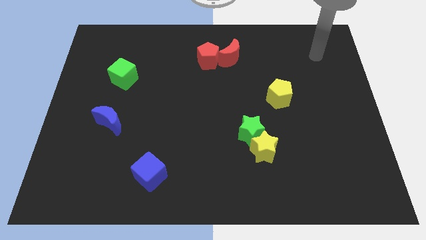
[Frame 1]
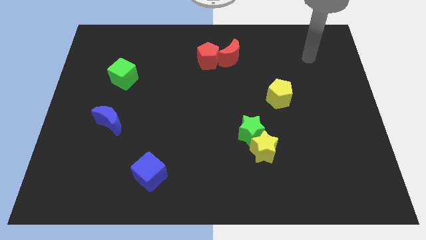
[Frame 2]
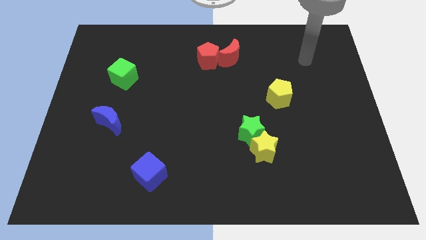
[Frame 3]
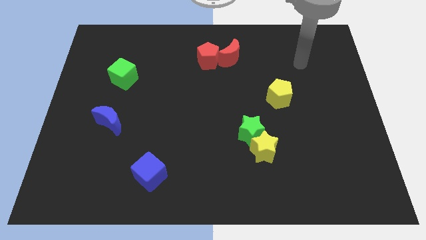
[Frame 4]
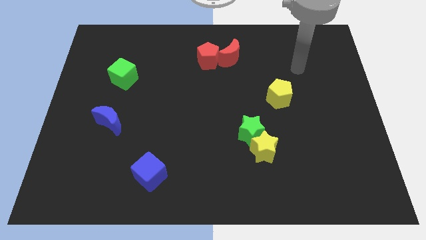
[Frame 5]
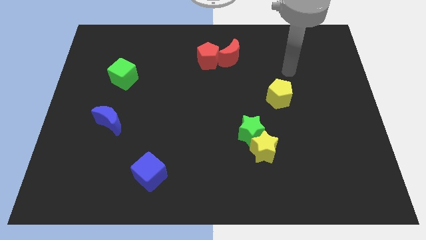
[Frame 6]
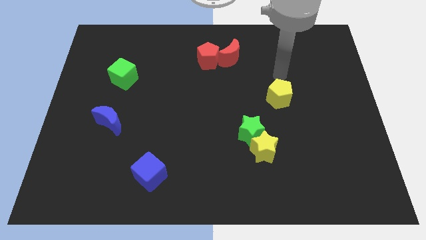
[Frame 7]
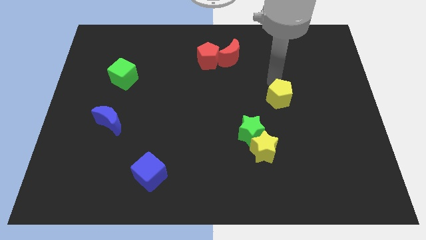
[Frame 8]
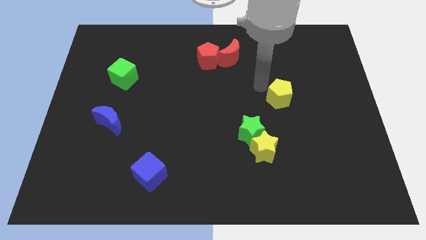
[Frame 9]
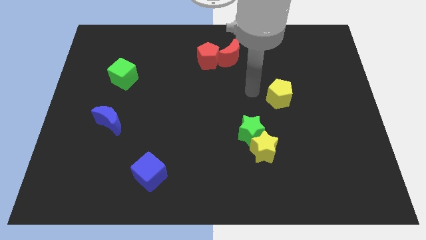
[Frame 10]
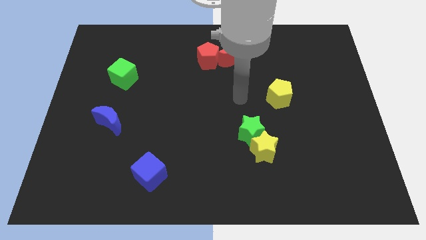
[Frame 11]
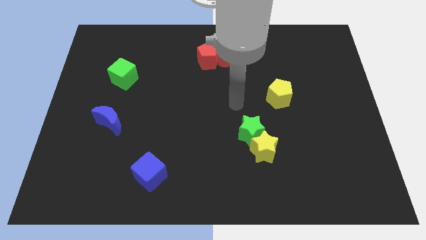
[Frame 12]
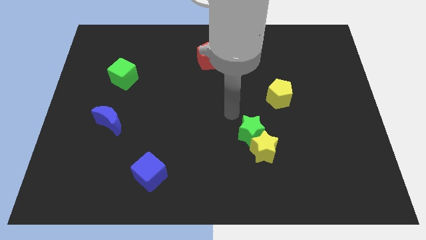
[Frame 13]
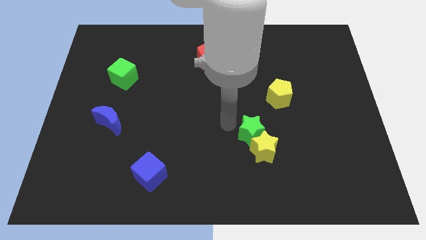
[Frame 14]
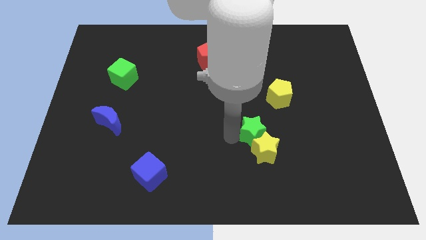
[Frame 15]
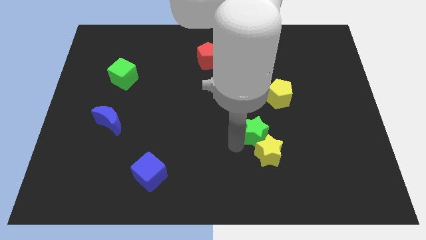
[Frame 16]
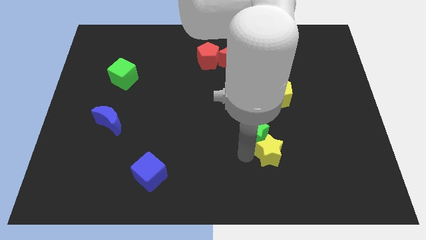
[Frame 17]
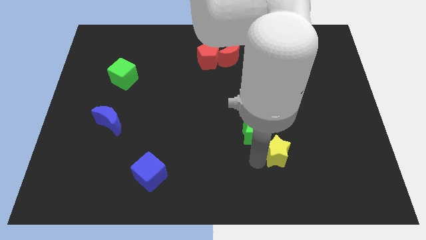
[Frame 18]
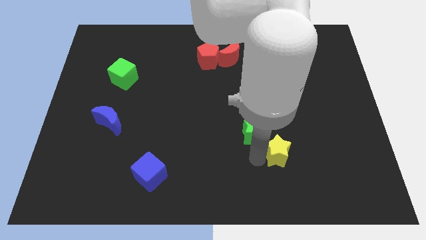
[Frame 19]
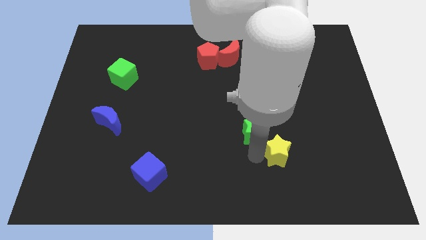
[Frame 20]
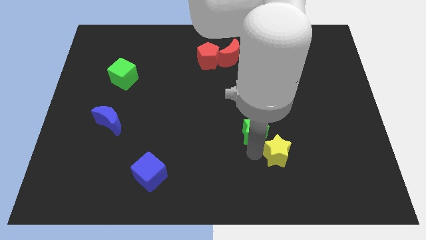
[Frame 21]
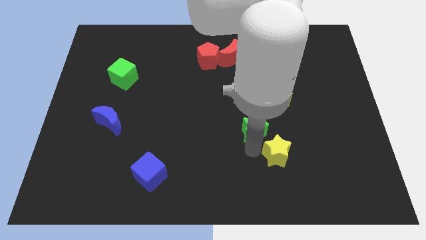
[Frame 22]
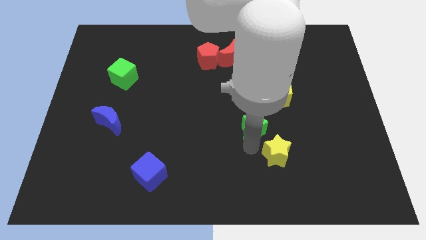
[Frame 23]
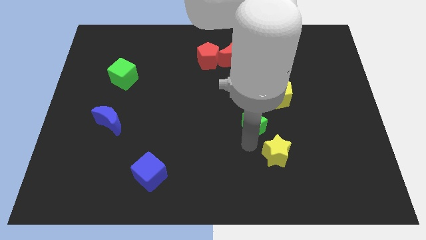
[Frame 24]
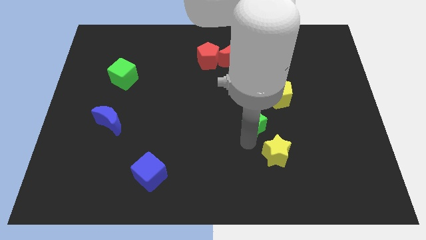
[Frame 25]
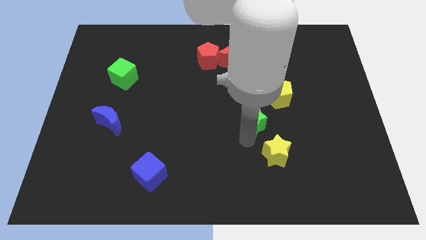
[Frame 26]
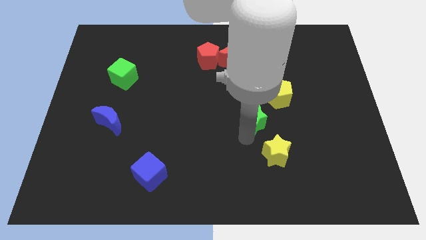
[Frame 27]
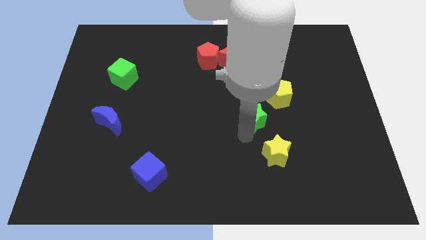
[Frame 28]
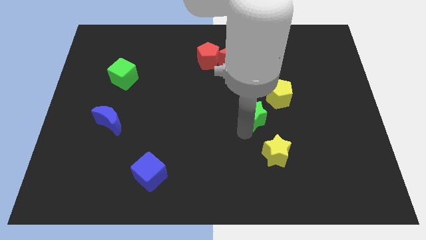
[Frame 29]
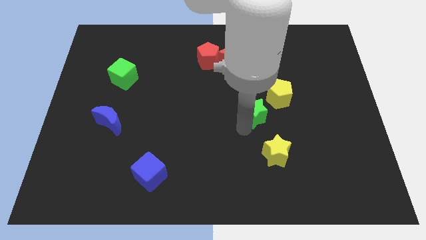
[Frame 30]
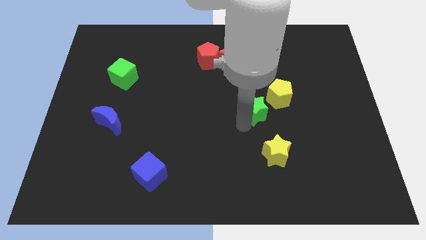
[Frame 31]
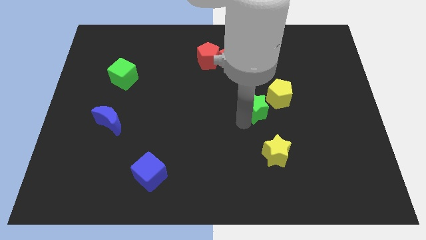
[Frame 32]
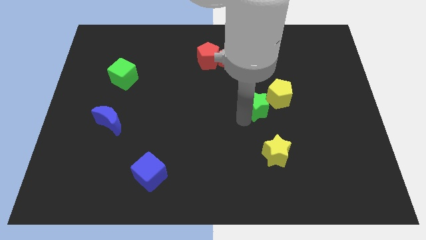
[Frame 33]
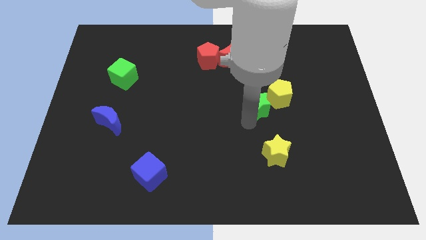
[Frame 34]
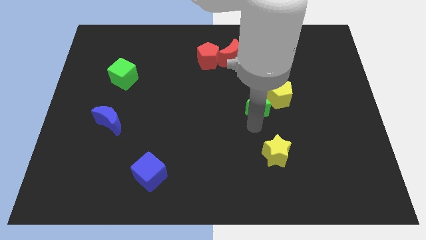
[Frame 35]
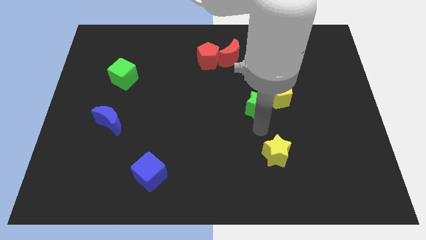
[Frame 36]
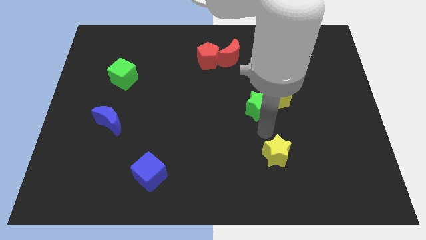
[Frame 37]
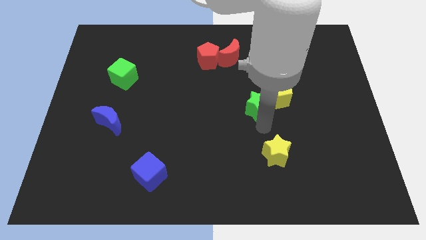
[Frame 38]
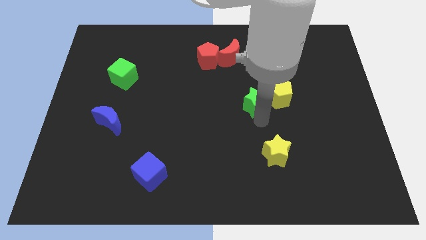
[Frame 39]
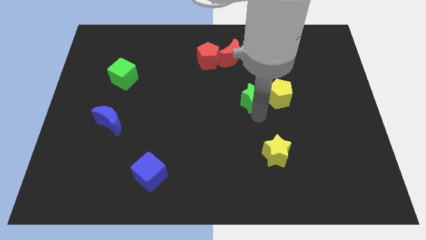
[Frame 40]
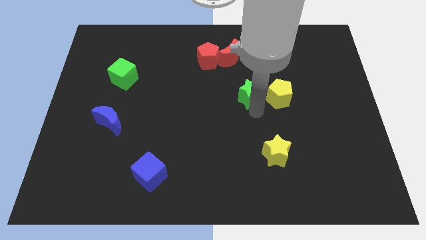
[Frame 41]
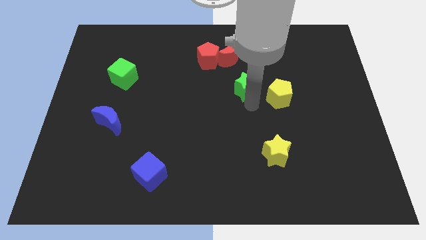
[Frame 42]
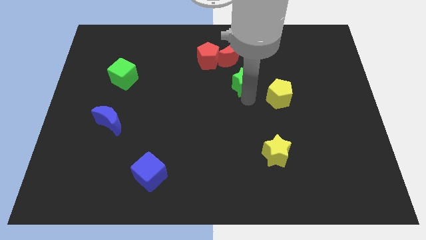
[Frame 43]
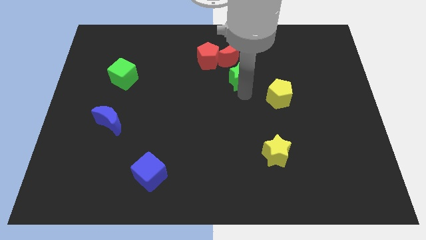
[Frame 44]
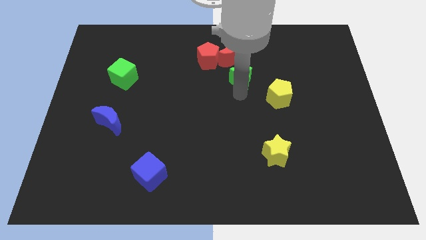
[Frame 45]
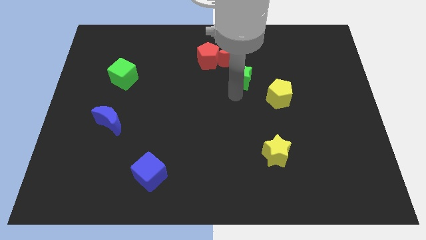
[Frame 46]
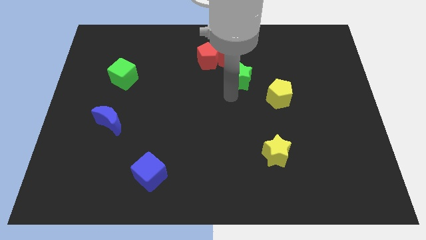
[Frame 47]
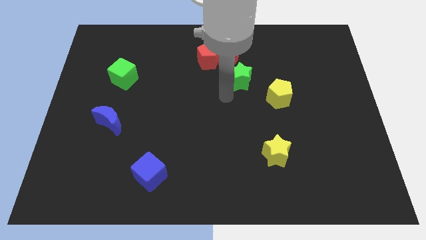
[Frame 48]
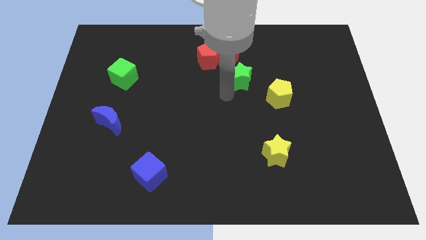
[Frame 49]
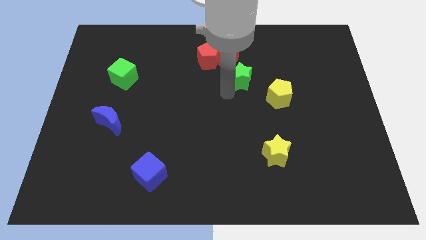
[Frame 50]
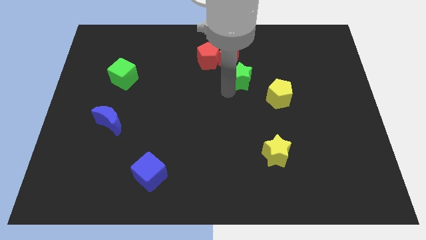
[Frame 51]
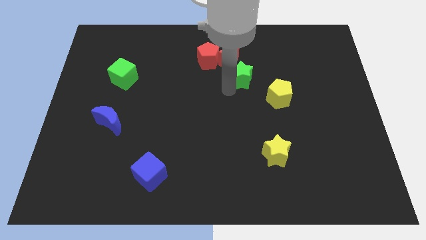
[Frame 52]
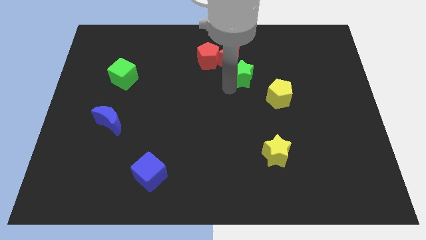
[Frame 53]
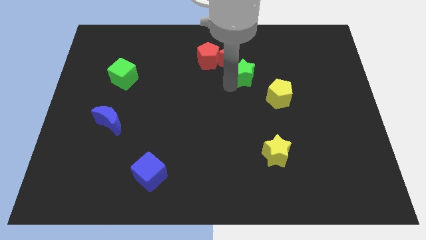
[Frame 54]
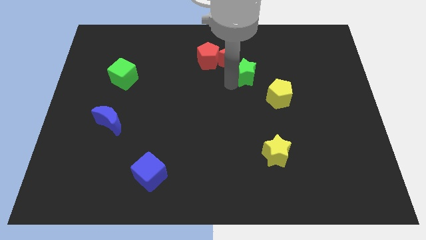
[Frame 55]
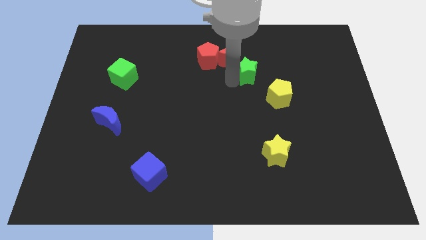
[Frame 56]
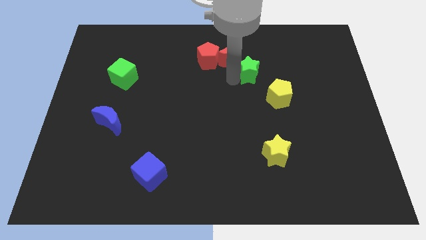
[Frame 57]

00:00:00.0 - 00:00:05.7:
push the green star just right of the red pentagon
